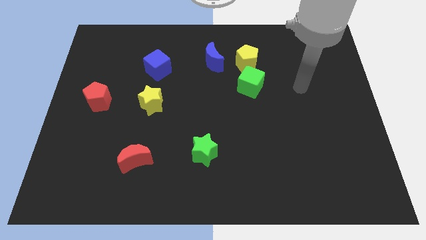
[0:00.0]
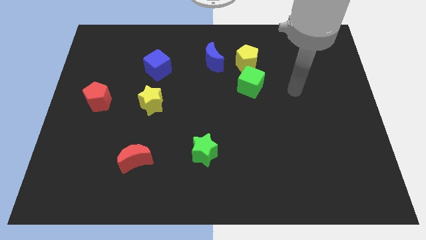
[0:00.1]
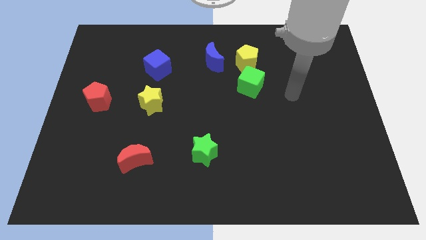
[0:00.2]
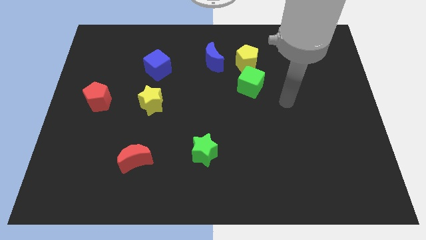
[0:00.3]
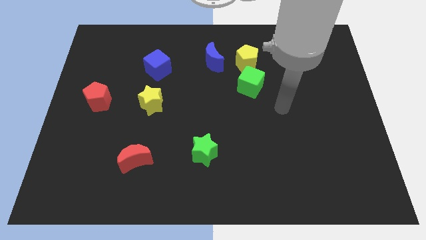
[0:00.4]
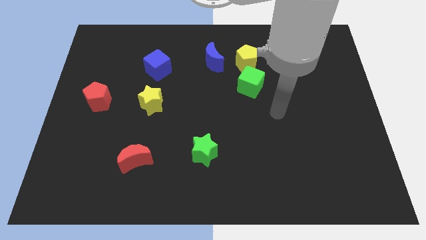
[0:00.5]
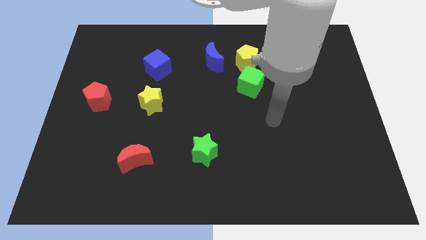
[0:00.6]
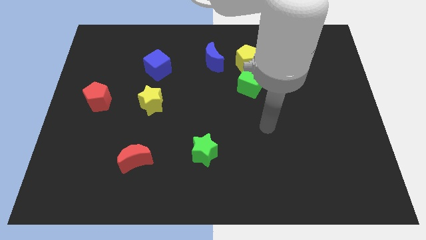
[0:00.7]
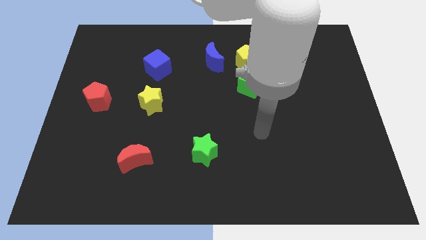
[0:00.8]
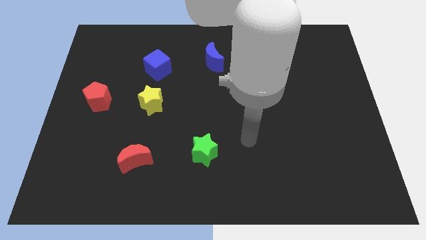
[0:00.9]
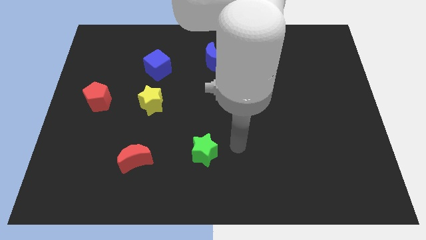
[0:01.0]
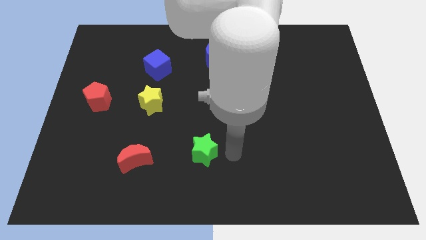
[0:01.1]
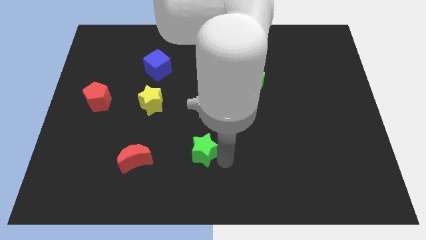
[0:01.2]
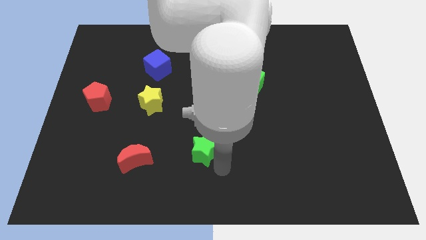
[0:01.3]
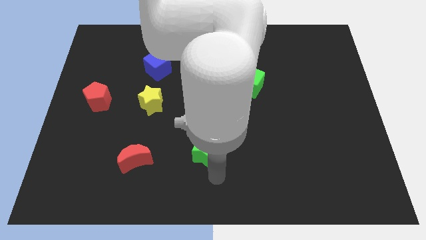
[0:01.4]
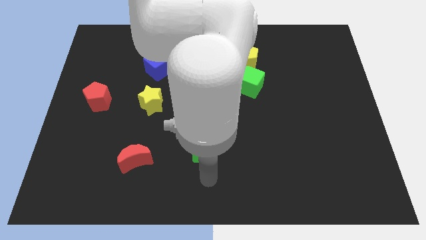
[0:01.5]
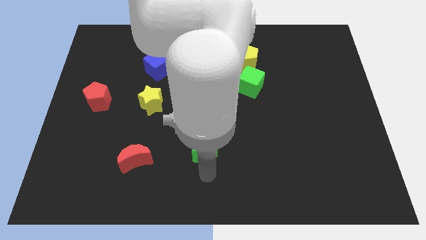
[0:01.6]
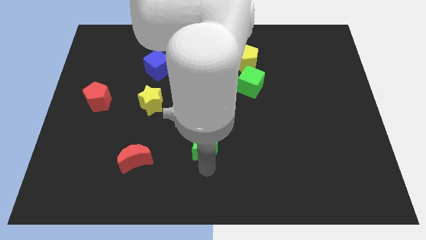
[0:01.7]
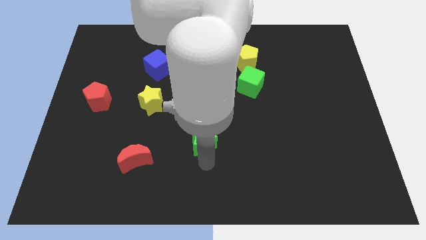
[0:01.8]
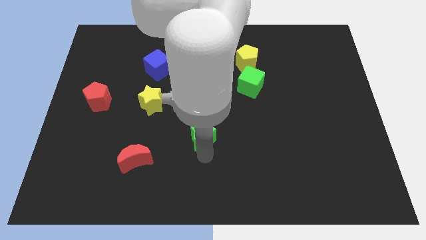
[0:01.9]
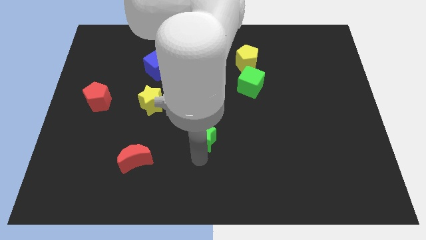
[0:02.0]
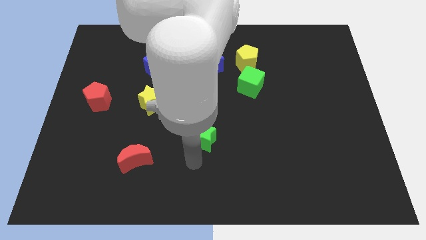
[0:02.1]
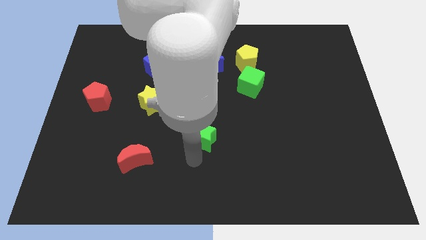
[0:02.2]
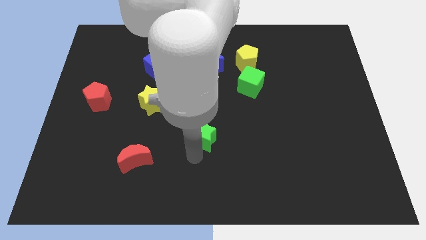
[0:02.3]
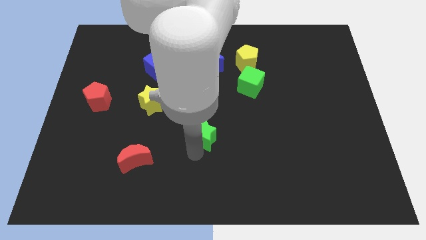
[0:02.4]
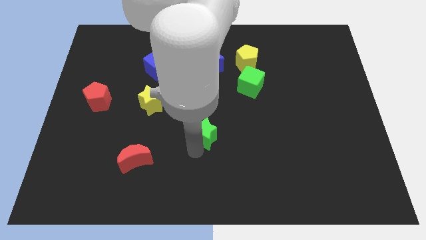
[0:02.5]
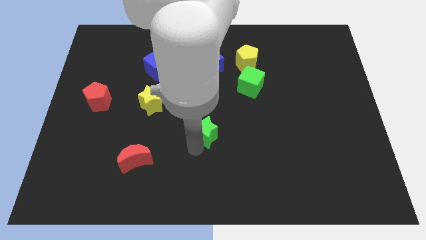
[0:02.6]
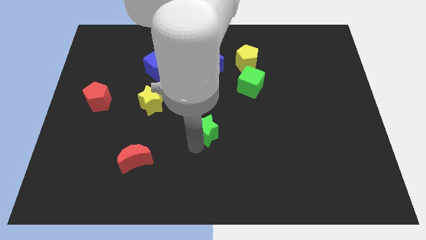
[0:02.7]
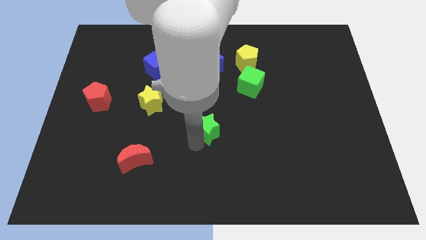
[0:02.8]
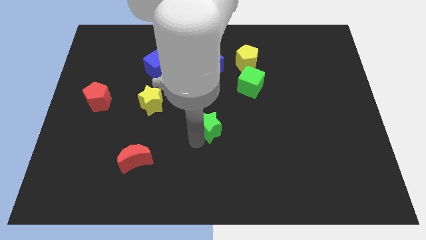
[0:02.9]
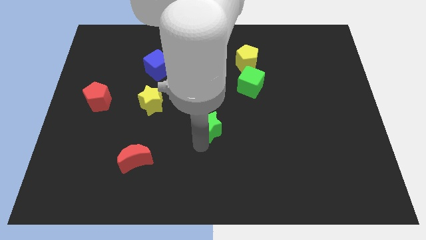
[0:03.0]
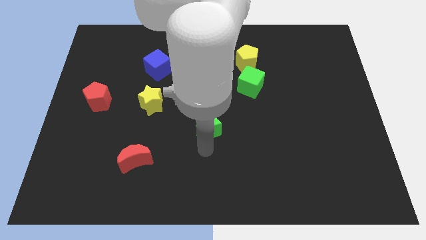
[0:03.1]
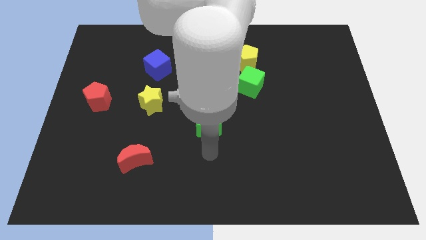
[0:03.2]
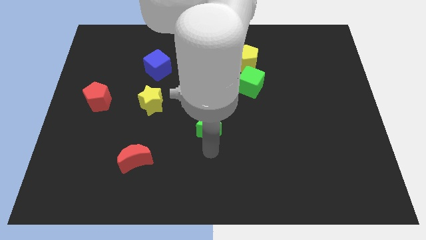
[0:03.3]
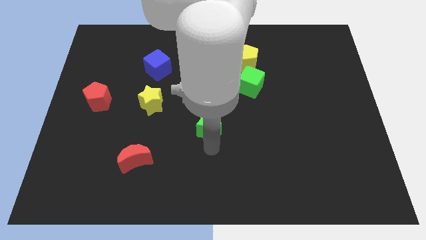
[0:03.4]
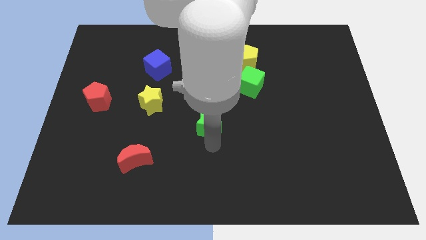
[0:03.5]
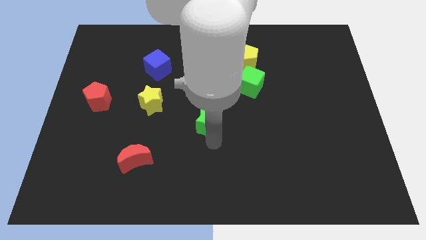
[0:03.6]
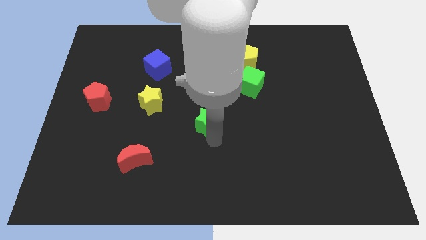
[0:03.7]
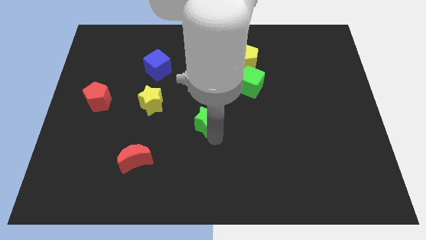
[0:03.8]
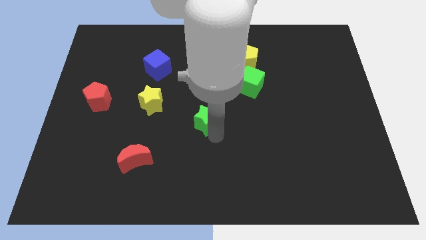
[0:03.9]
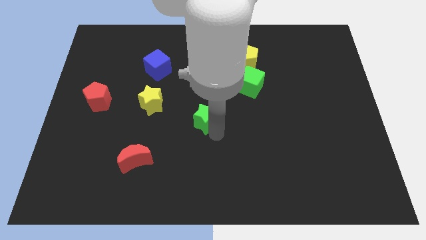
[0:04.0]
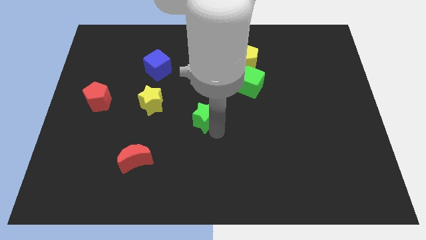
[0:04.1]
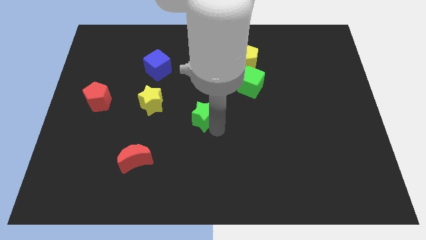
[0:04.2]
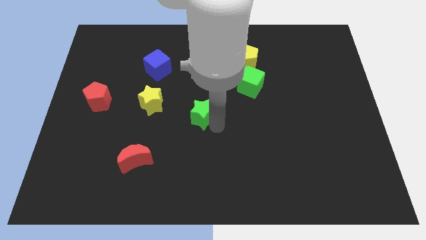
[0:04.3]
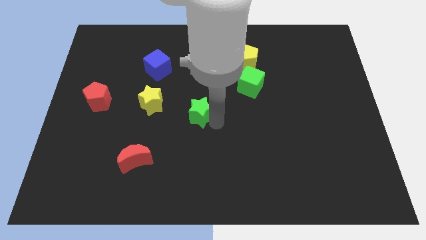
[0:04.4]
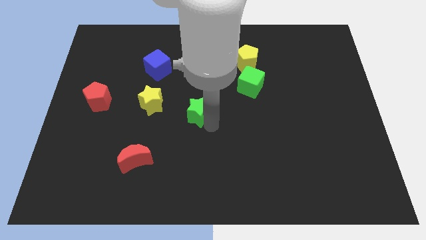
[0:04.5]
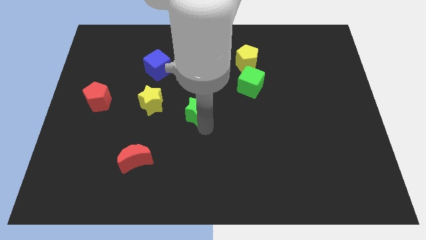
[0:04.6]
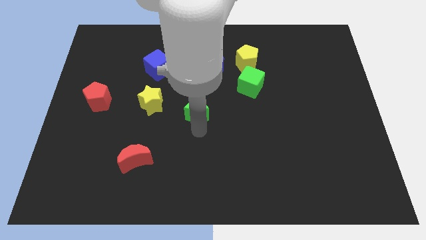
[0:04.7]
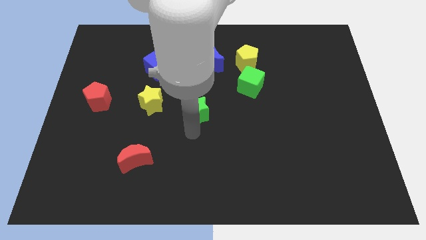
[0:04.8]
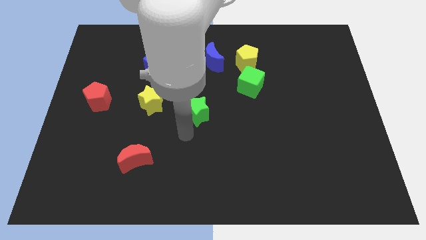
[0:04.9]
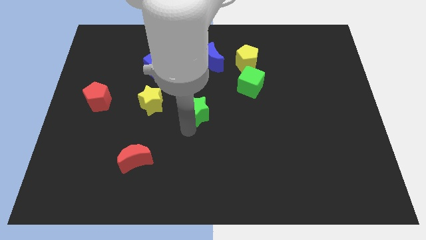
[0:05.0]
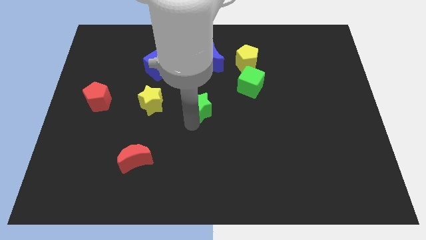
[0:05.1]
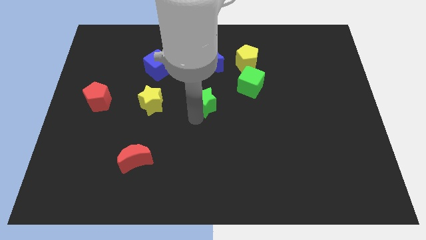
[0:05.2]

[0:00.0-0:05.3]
put the green star to the bottom of the blue moon

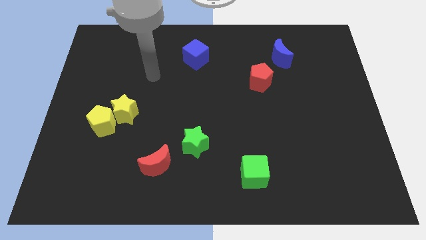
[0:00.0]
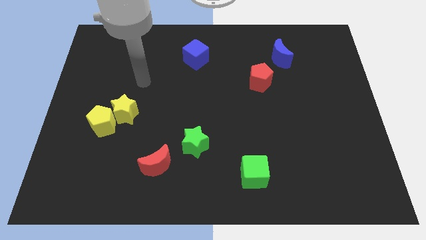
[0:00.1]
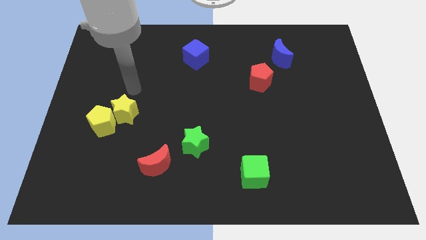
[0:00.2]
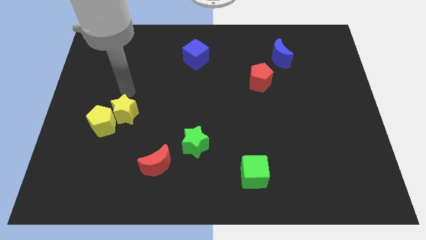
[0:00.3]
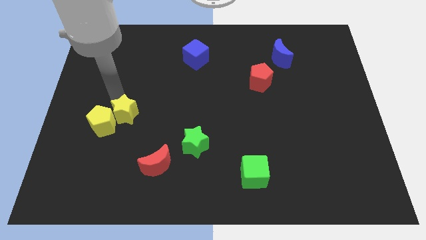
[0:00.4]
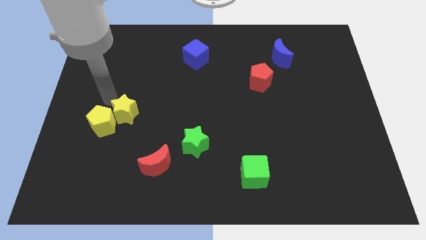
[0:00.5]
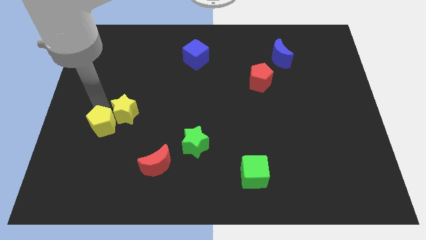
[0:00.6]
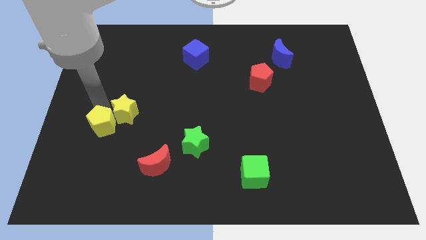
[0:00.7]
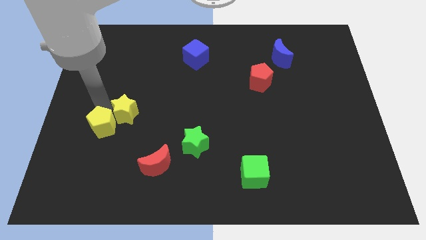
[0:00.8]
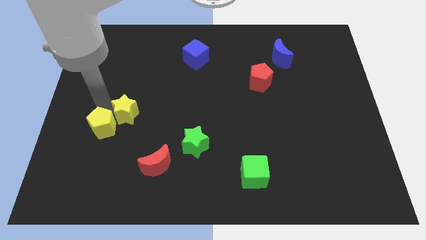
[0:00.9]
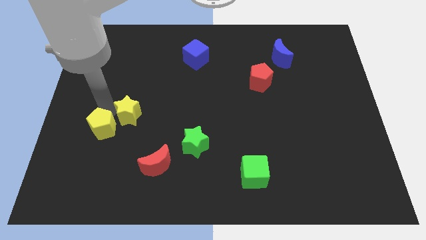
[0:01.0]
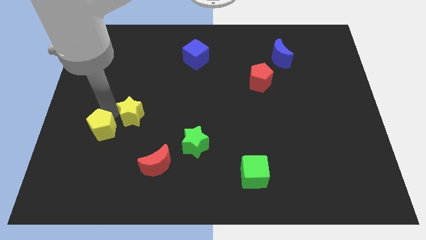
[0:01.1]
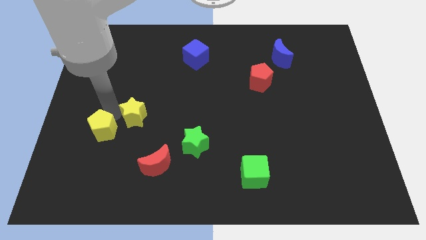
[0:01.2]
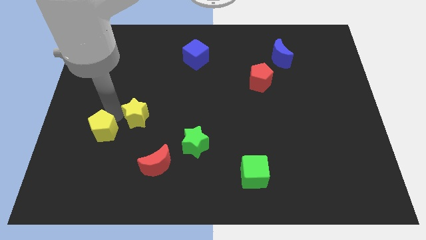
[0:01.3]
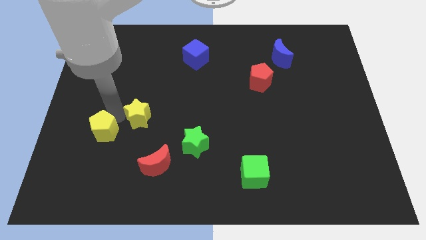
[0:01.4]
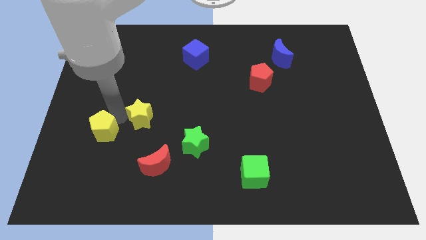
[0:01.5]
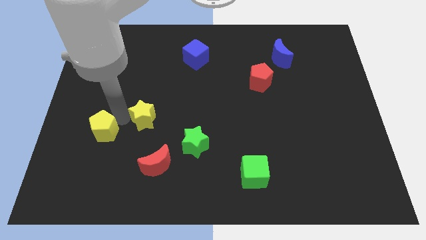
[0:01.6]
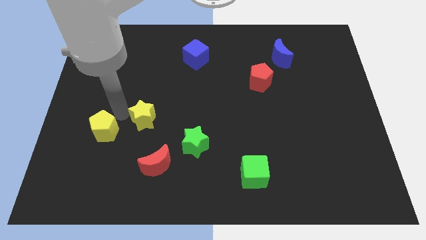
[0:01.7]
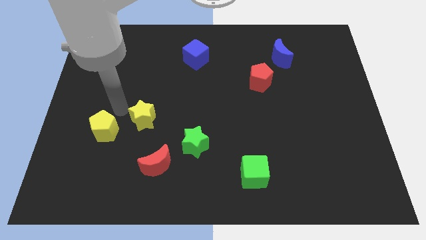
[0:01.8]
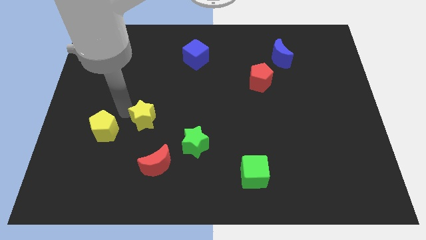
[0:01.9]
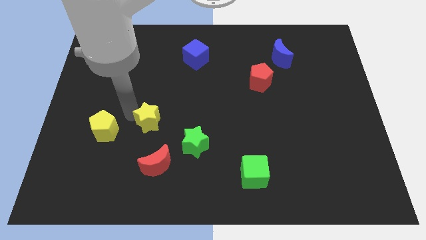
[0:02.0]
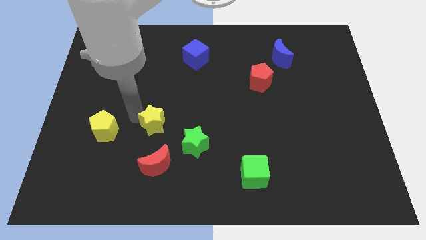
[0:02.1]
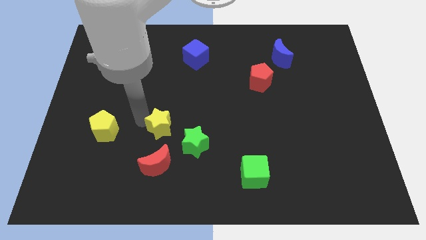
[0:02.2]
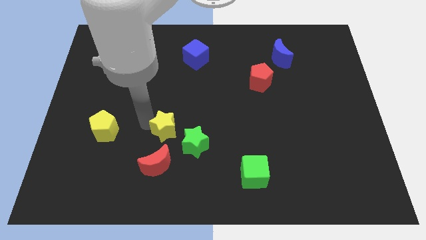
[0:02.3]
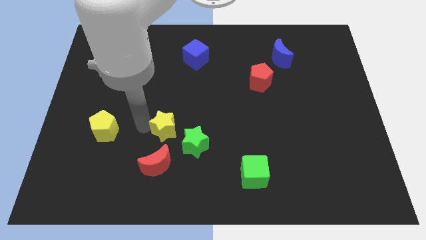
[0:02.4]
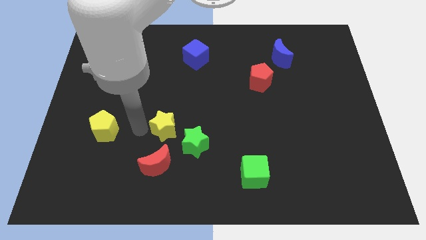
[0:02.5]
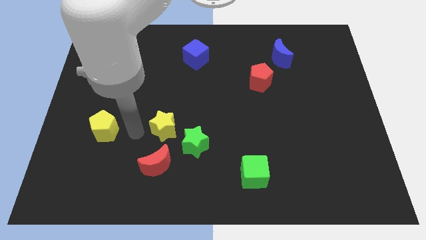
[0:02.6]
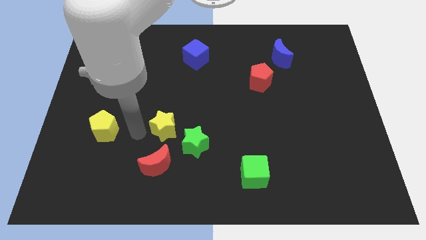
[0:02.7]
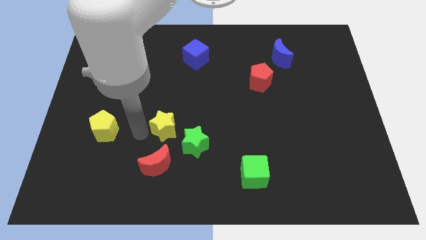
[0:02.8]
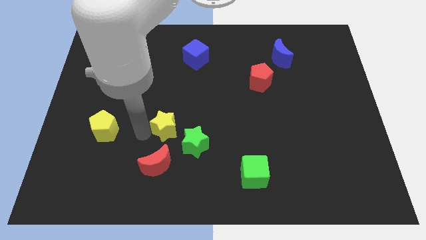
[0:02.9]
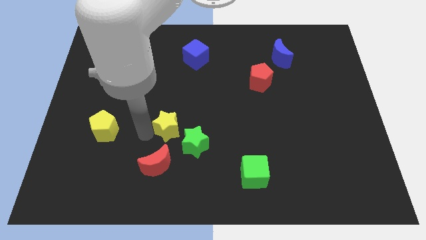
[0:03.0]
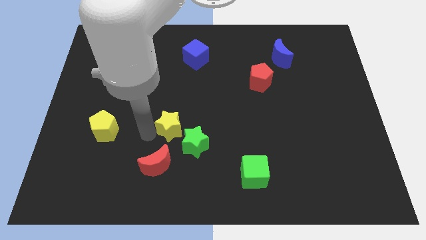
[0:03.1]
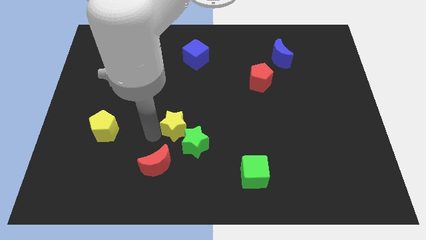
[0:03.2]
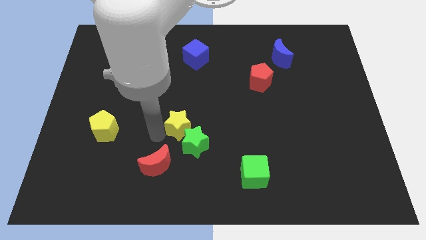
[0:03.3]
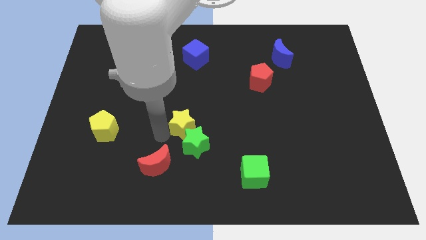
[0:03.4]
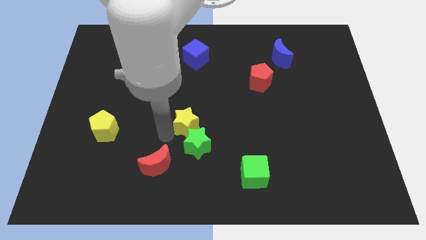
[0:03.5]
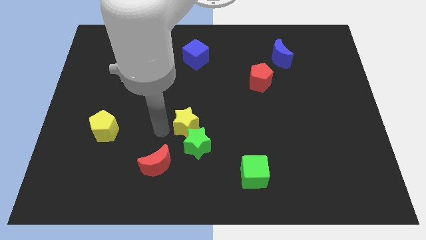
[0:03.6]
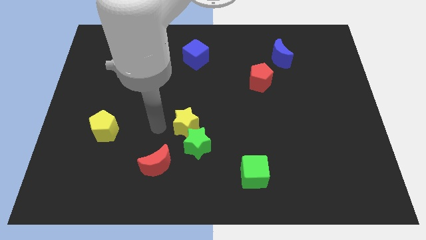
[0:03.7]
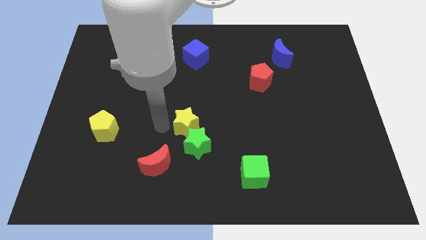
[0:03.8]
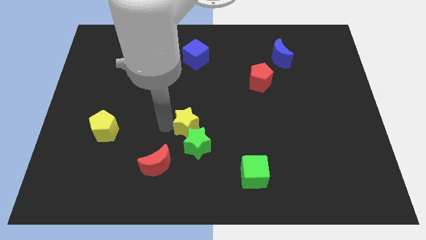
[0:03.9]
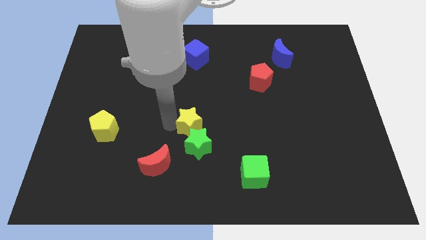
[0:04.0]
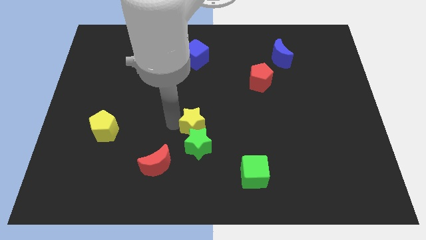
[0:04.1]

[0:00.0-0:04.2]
put the yellow star to the top right of the green star
